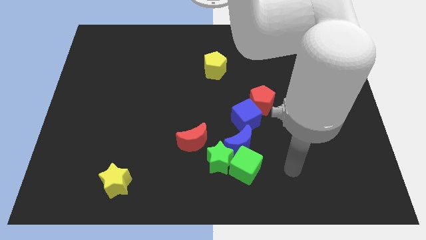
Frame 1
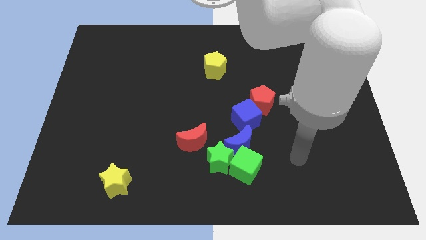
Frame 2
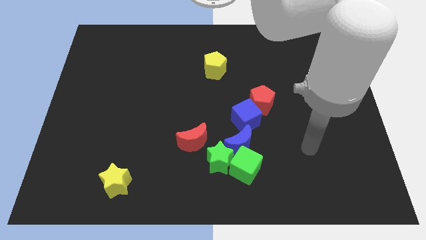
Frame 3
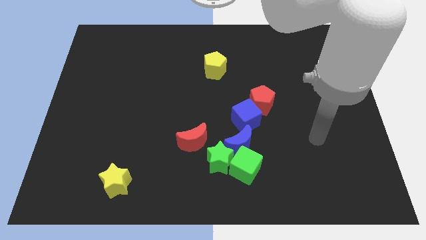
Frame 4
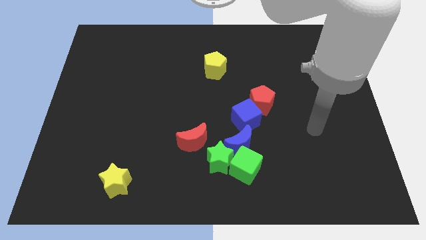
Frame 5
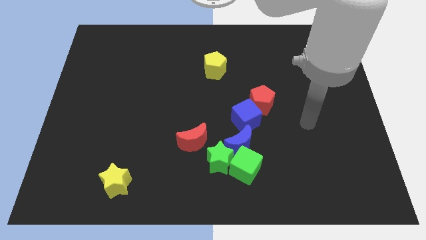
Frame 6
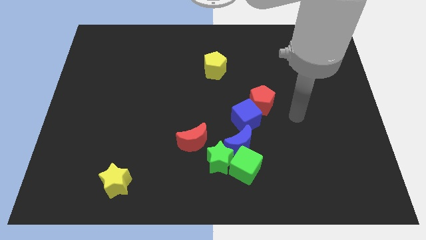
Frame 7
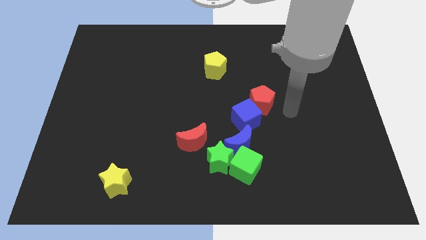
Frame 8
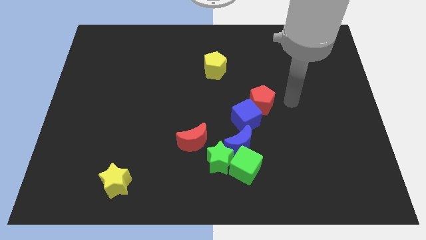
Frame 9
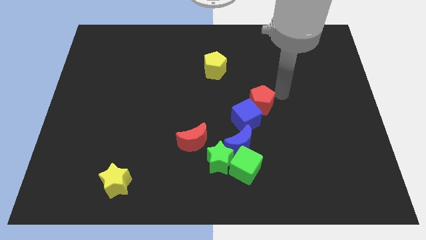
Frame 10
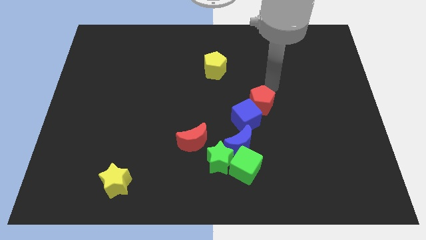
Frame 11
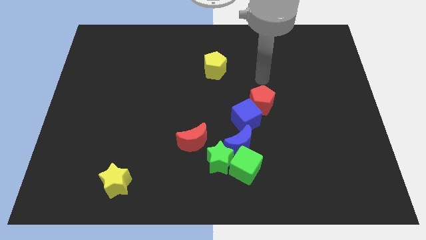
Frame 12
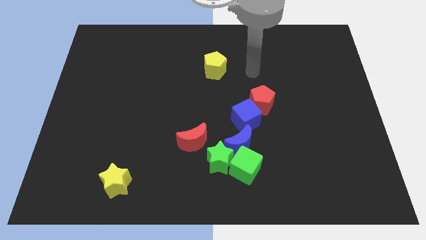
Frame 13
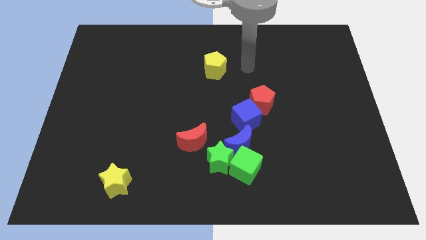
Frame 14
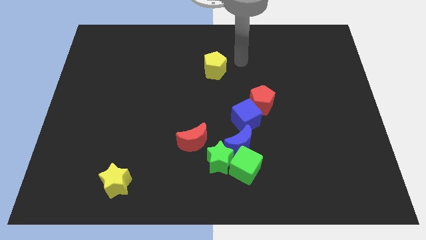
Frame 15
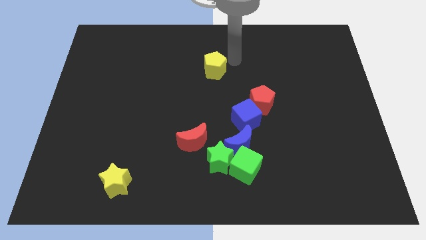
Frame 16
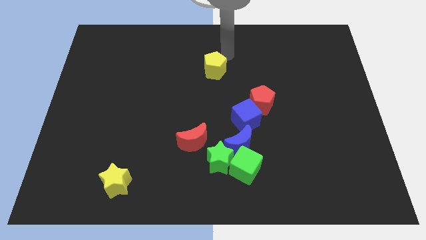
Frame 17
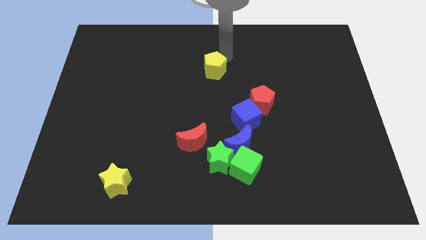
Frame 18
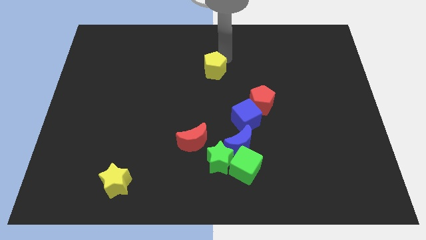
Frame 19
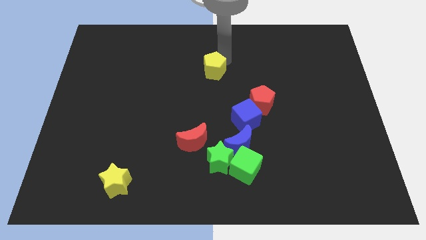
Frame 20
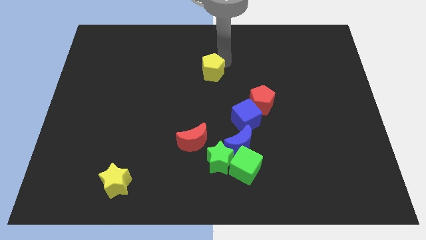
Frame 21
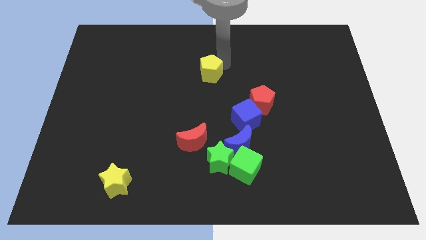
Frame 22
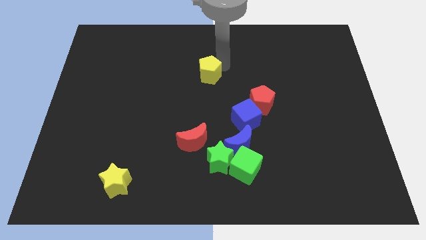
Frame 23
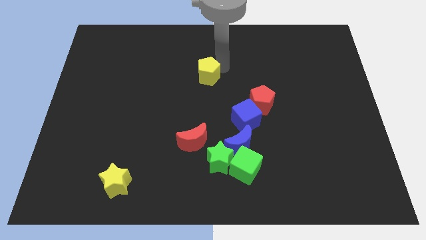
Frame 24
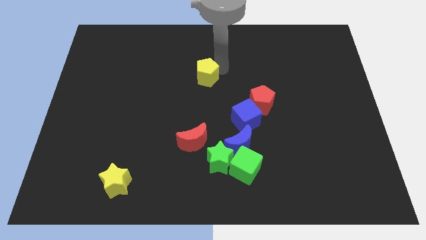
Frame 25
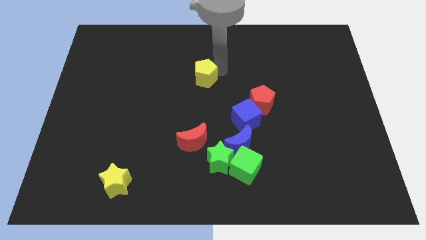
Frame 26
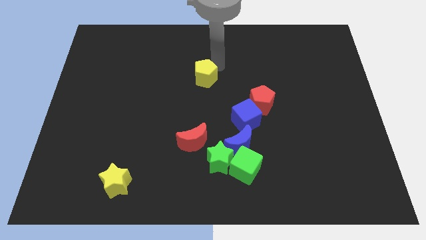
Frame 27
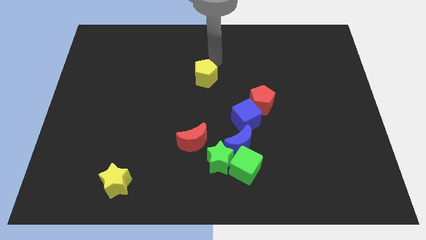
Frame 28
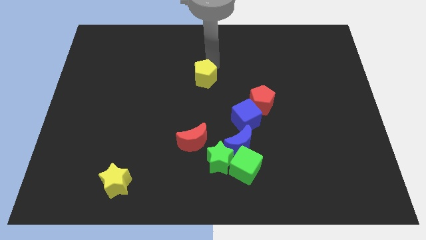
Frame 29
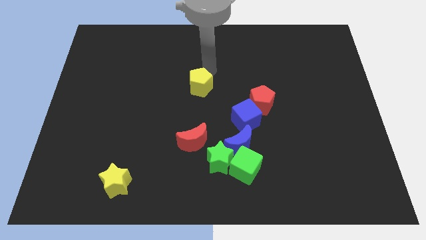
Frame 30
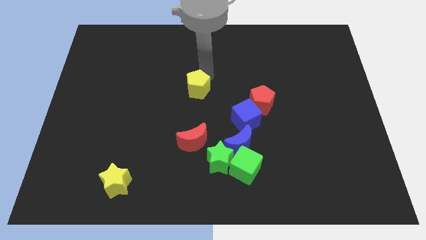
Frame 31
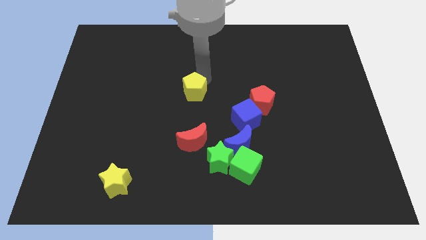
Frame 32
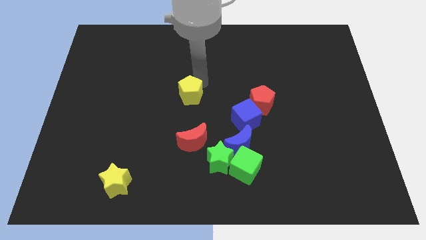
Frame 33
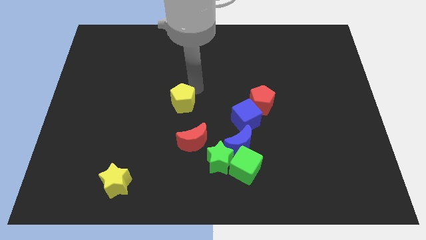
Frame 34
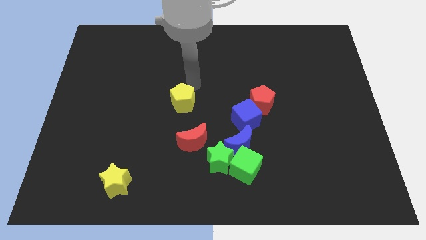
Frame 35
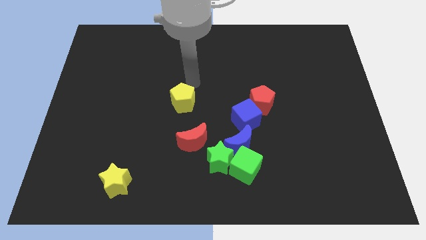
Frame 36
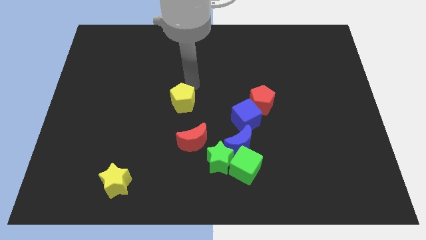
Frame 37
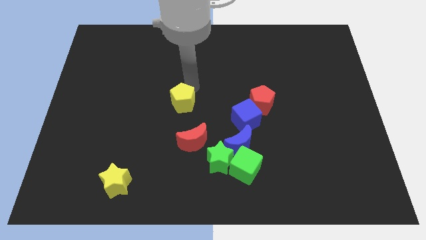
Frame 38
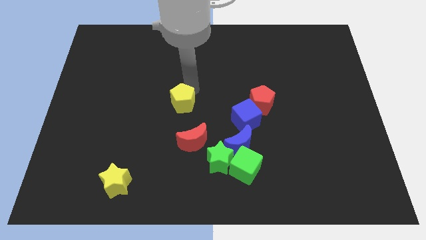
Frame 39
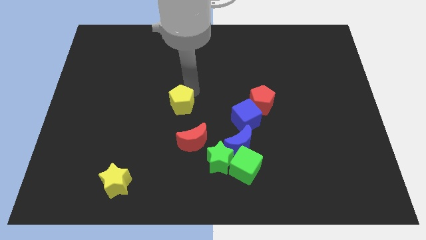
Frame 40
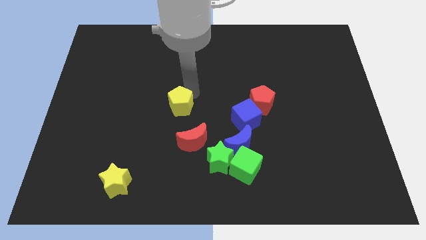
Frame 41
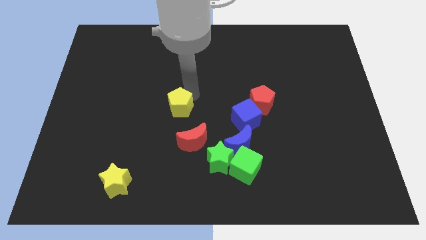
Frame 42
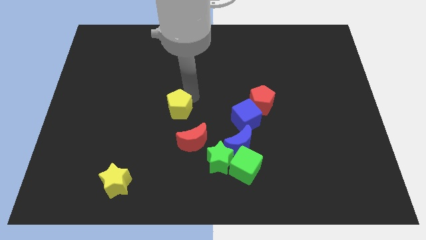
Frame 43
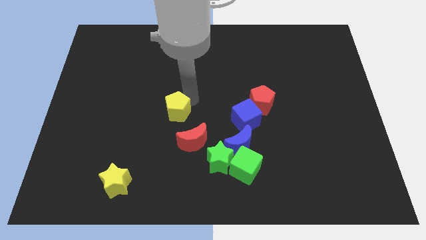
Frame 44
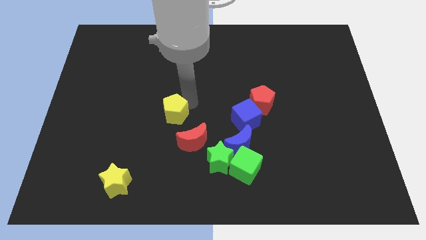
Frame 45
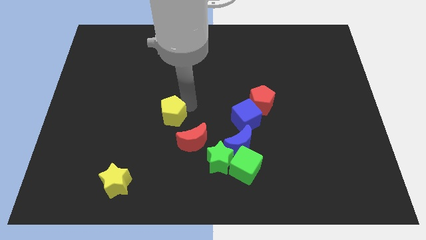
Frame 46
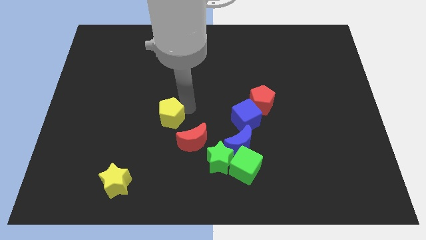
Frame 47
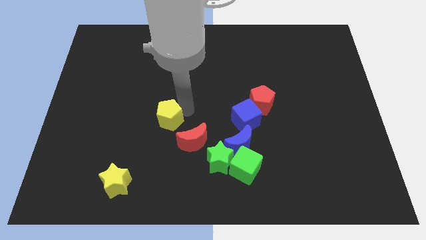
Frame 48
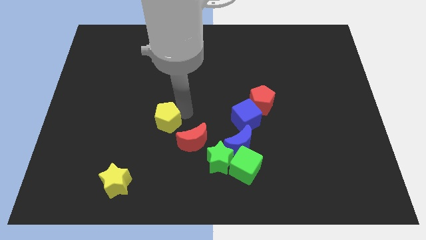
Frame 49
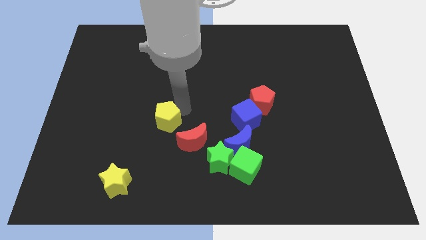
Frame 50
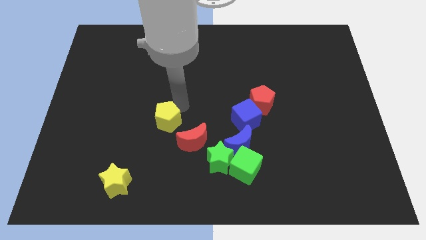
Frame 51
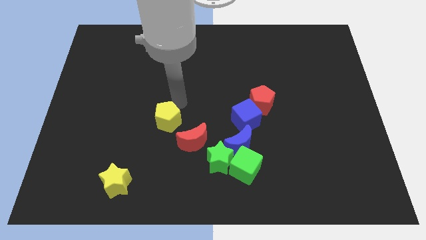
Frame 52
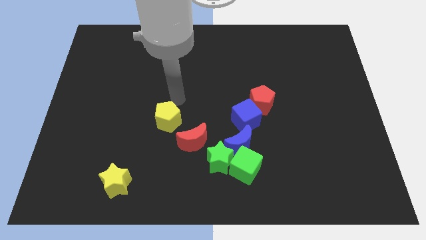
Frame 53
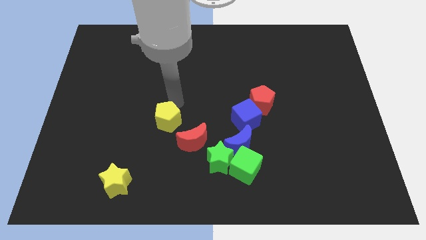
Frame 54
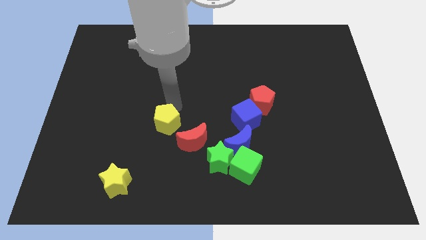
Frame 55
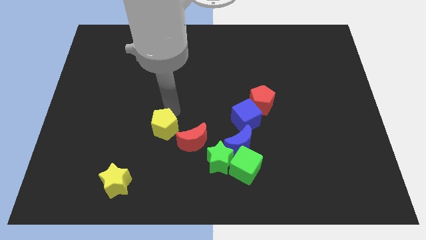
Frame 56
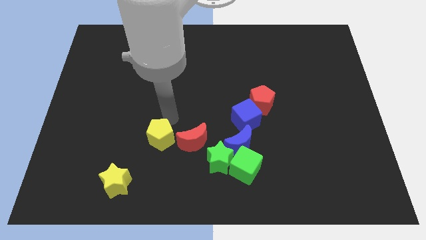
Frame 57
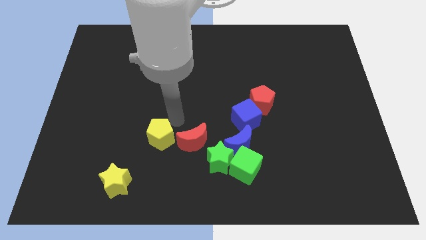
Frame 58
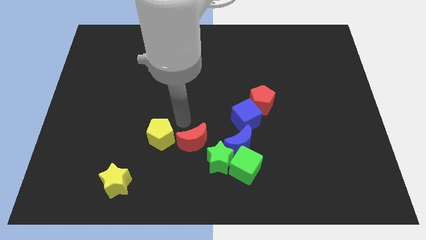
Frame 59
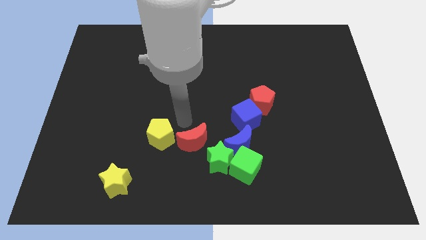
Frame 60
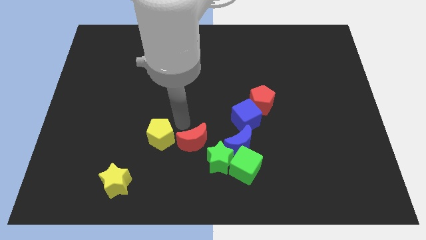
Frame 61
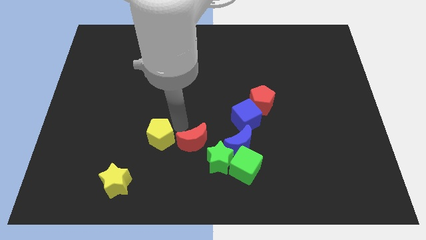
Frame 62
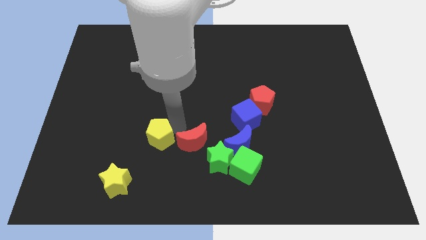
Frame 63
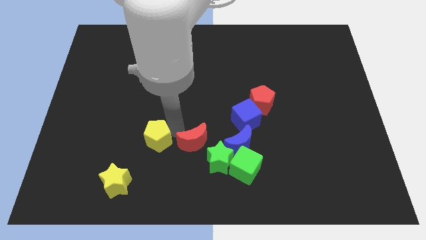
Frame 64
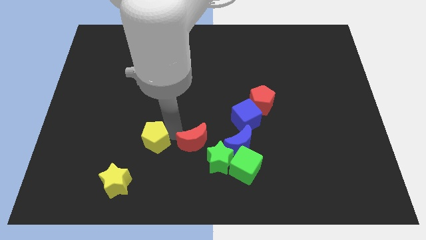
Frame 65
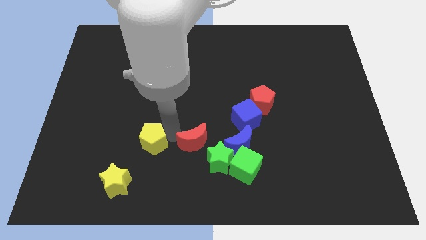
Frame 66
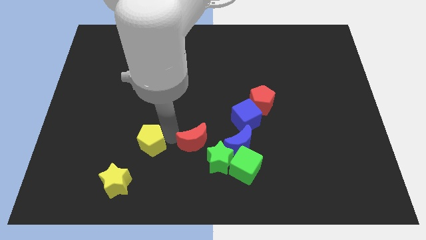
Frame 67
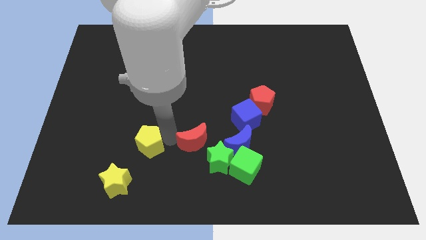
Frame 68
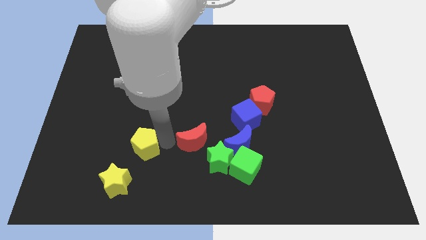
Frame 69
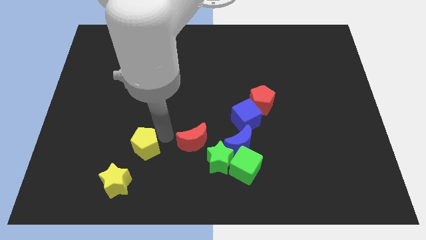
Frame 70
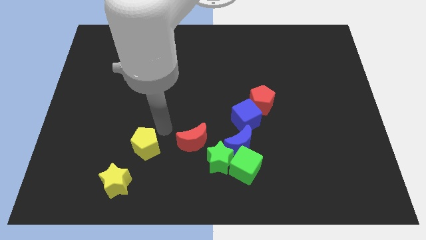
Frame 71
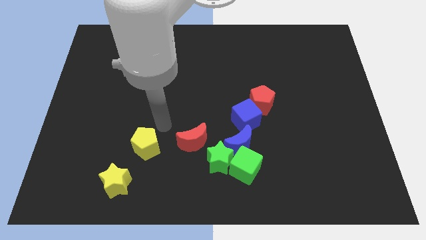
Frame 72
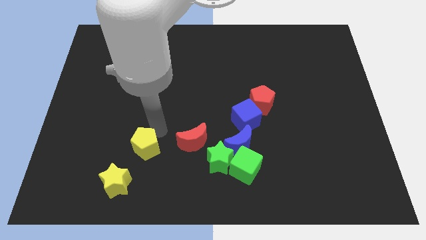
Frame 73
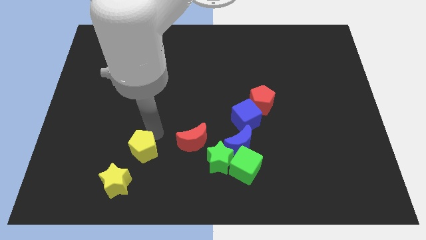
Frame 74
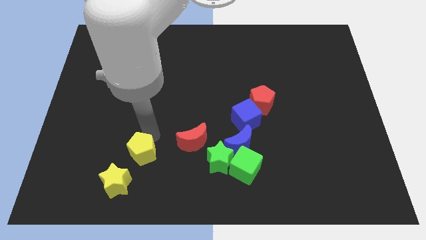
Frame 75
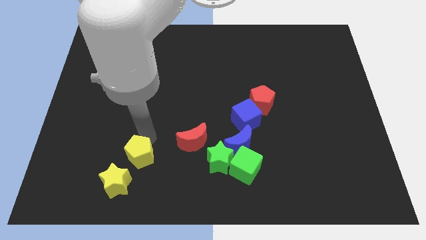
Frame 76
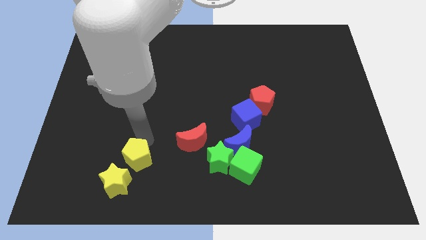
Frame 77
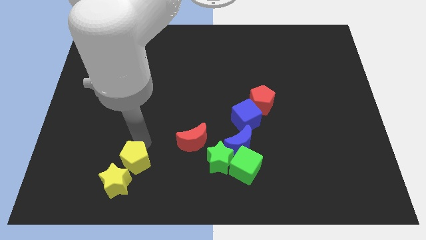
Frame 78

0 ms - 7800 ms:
move the yellow pentagon close to the yellow star
